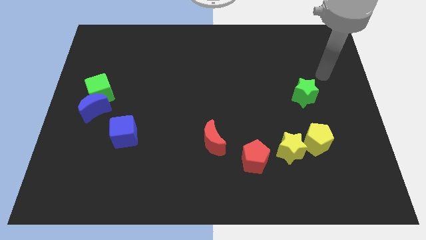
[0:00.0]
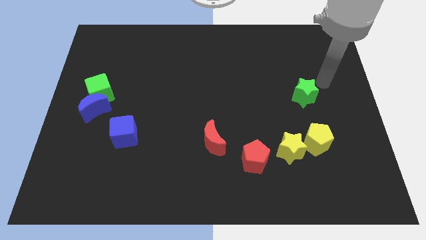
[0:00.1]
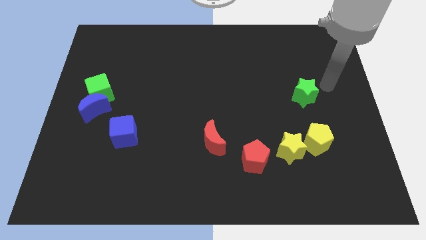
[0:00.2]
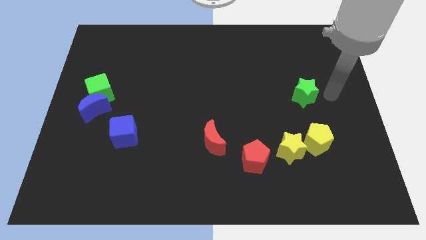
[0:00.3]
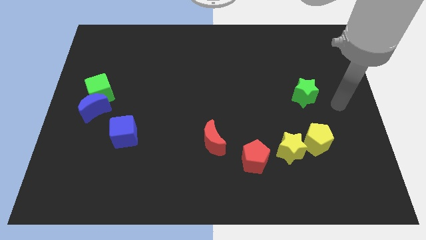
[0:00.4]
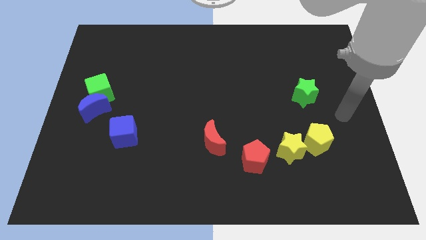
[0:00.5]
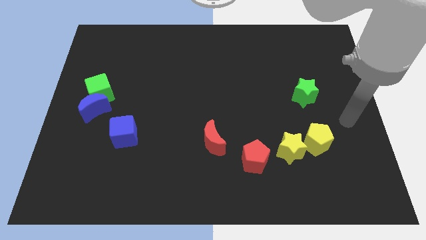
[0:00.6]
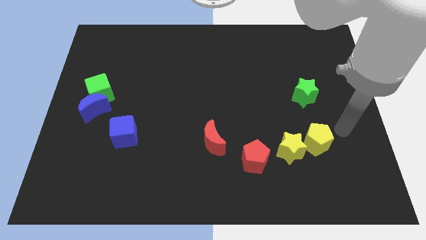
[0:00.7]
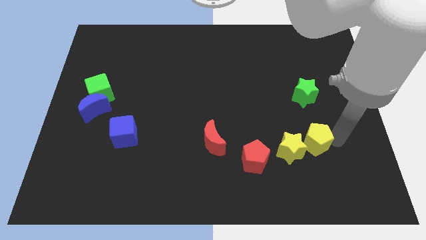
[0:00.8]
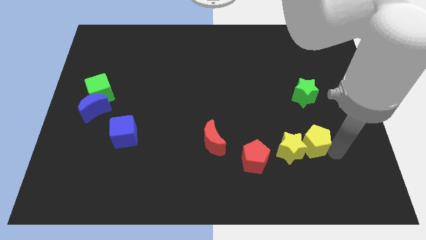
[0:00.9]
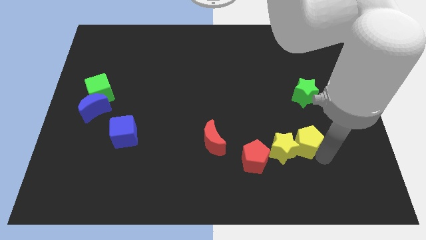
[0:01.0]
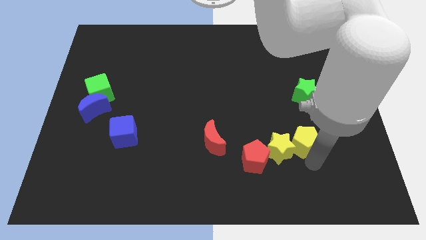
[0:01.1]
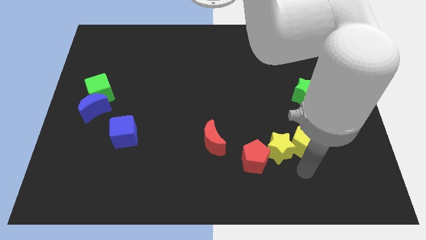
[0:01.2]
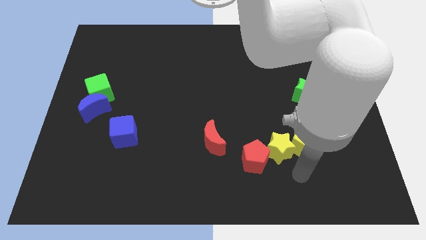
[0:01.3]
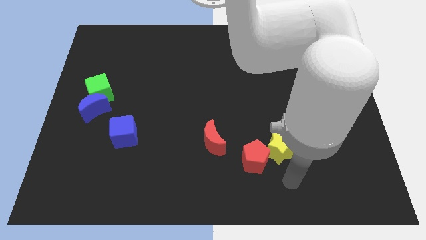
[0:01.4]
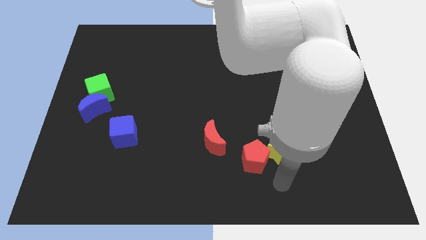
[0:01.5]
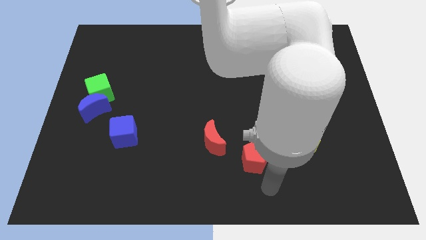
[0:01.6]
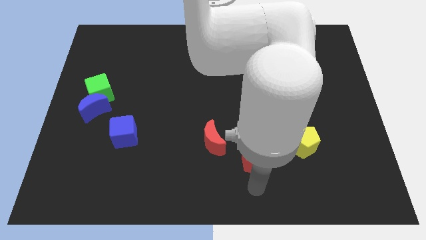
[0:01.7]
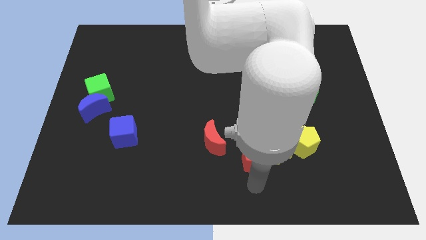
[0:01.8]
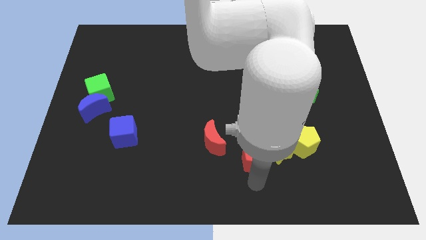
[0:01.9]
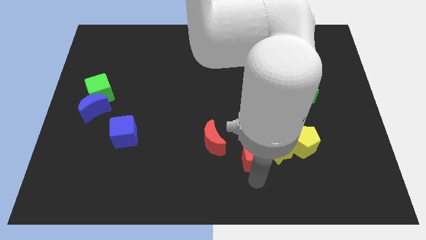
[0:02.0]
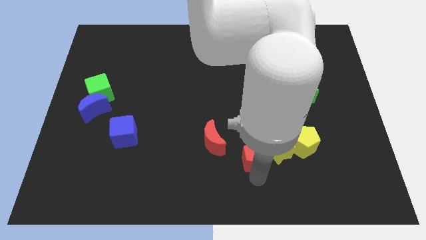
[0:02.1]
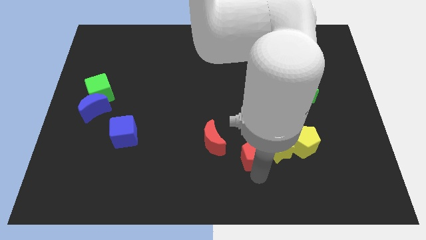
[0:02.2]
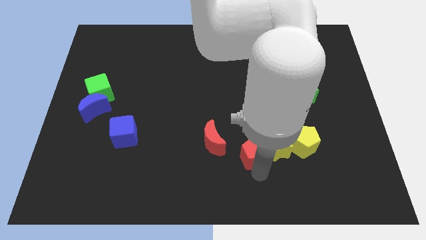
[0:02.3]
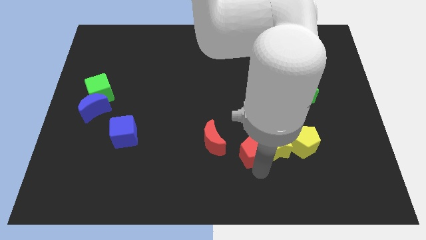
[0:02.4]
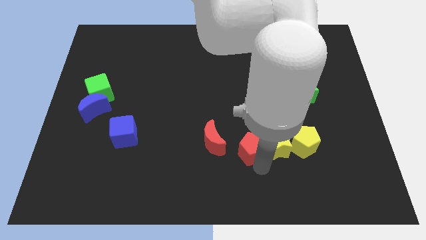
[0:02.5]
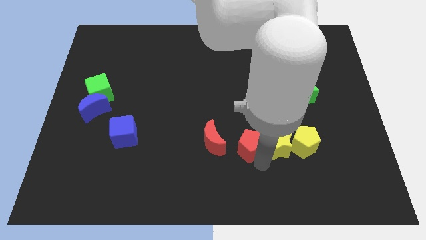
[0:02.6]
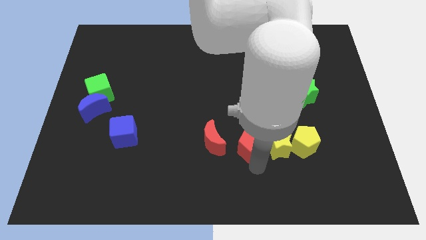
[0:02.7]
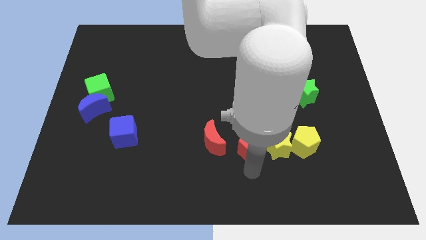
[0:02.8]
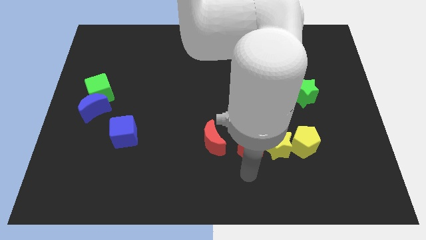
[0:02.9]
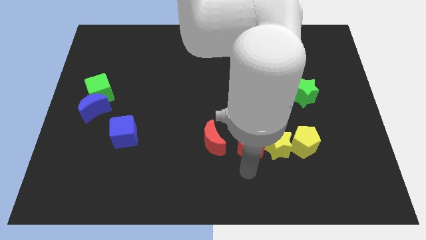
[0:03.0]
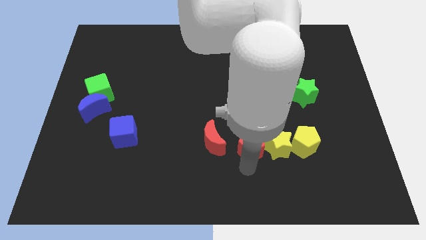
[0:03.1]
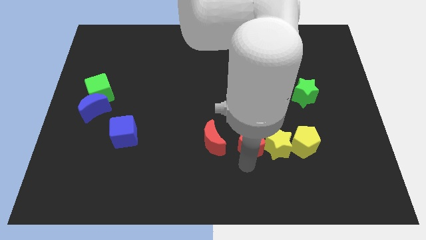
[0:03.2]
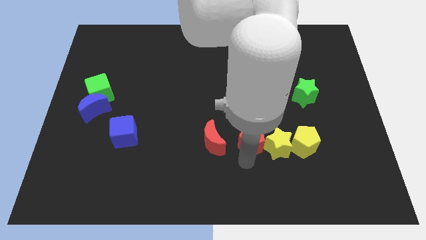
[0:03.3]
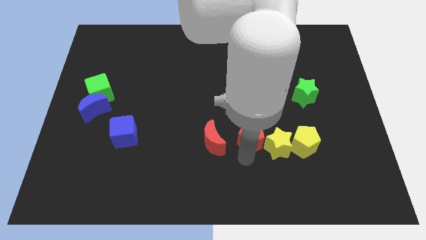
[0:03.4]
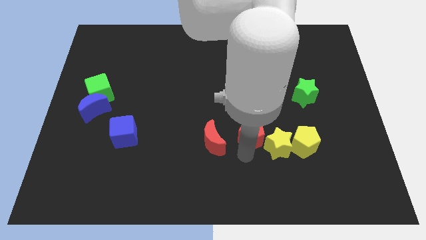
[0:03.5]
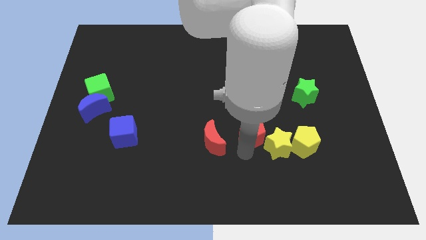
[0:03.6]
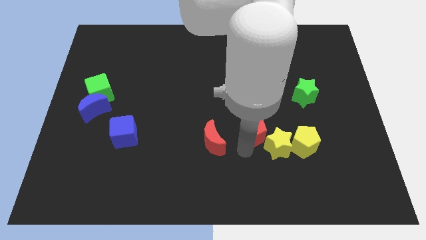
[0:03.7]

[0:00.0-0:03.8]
move the red pentagon slightly upwards

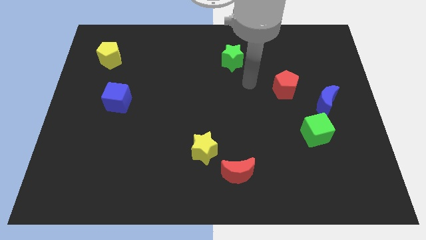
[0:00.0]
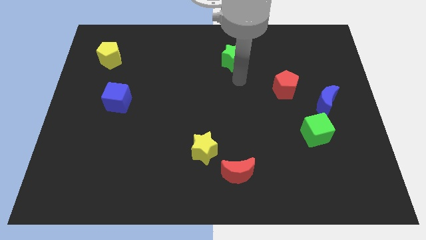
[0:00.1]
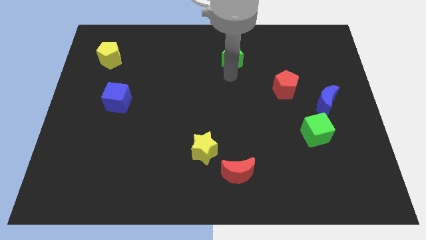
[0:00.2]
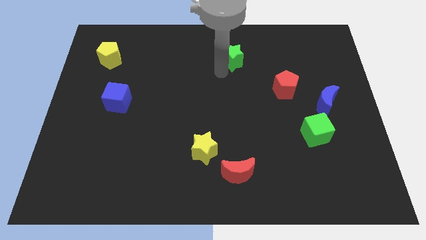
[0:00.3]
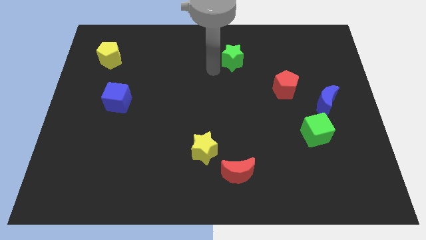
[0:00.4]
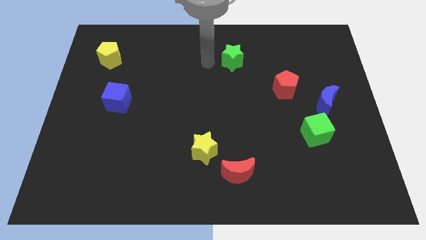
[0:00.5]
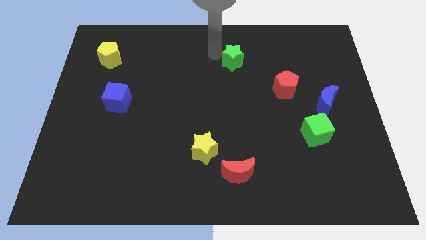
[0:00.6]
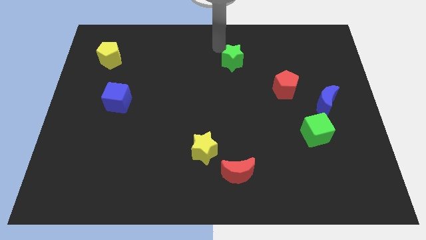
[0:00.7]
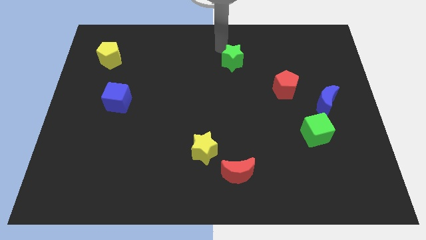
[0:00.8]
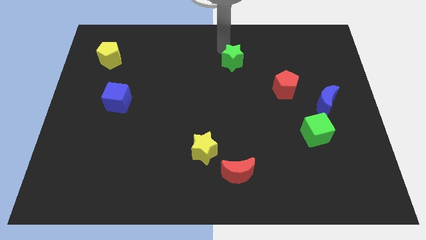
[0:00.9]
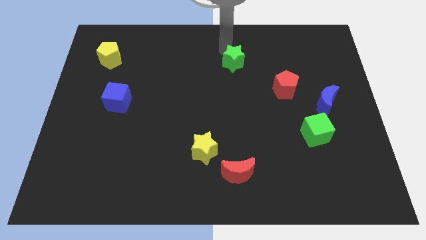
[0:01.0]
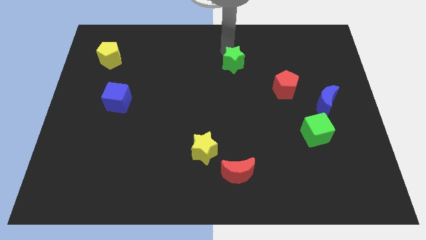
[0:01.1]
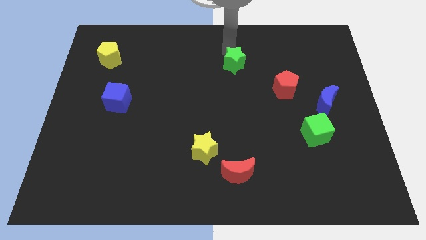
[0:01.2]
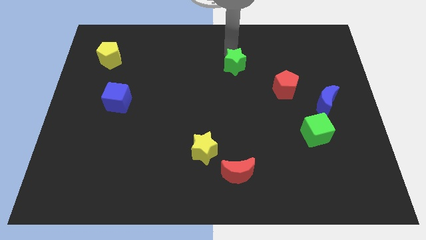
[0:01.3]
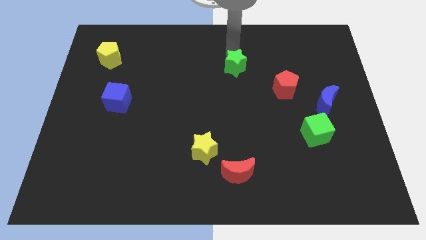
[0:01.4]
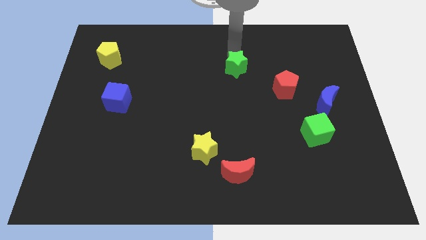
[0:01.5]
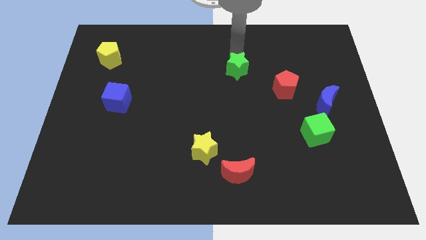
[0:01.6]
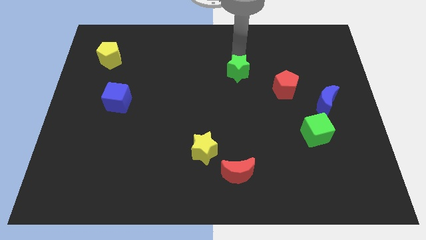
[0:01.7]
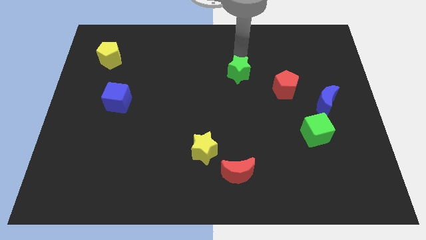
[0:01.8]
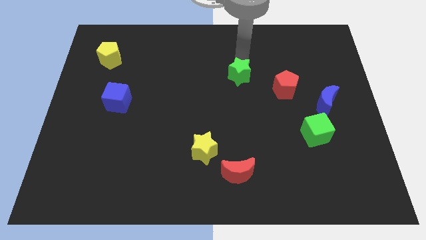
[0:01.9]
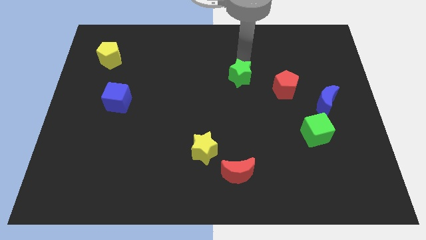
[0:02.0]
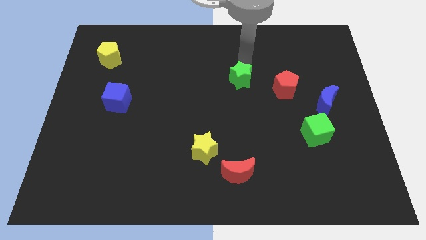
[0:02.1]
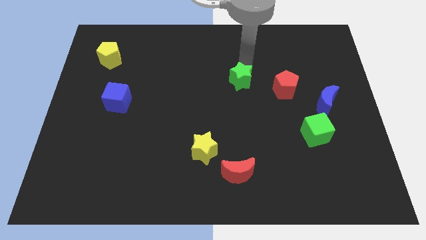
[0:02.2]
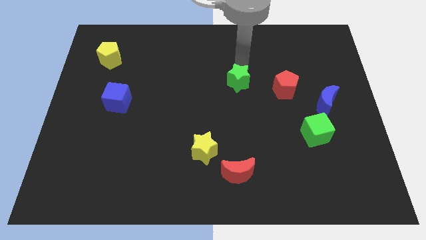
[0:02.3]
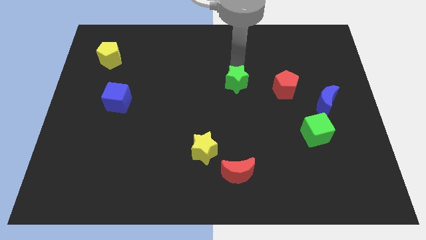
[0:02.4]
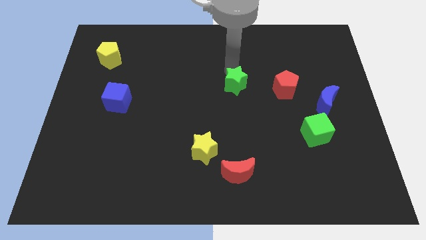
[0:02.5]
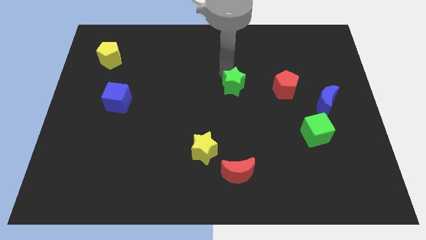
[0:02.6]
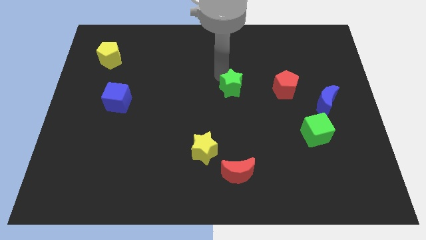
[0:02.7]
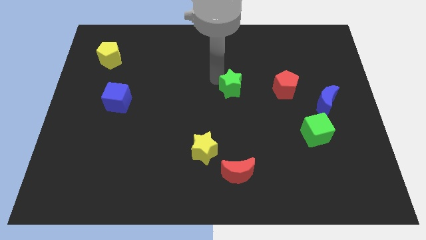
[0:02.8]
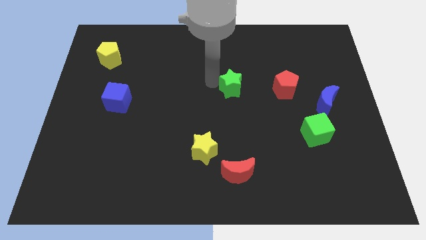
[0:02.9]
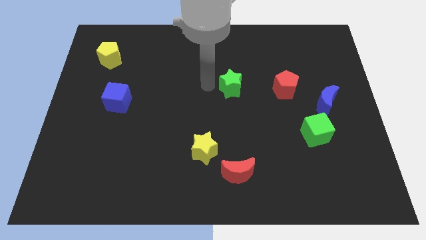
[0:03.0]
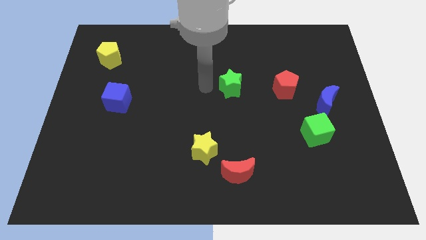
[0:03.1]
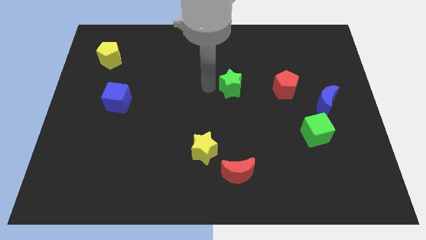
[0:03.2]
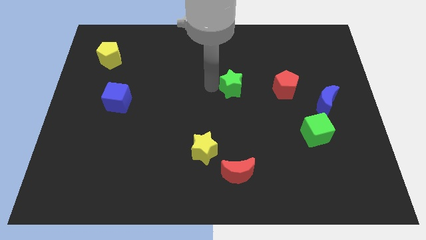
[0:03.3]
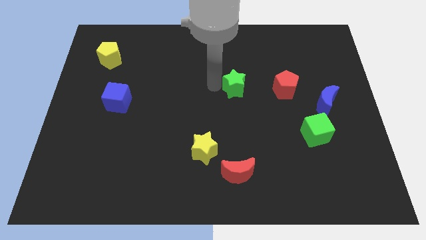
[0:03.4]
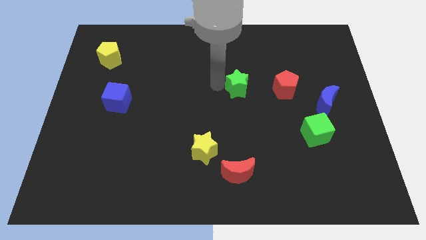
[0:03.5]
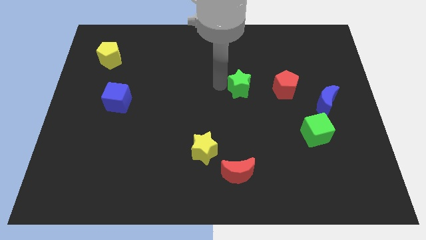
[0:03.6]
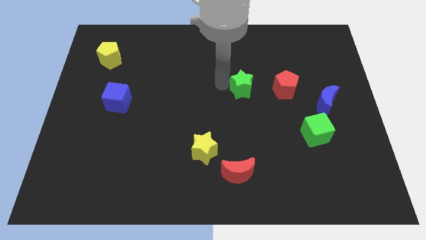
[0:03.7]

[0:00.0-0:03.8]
slightly slide the green star down and right diagonally

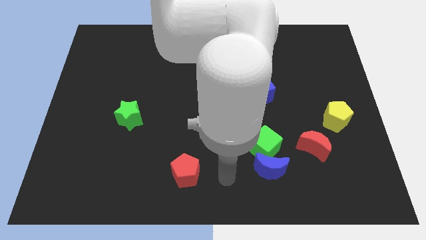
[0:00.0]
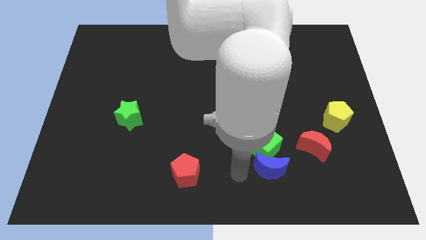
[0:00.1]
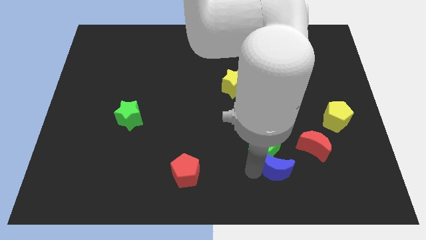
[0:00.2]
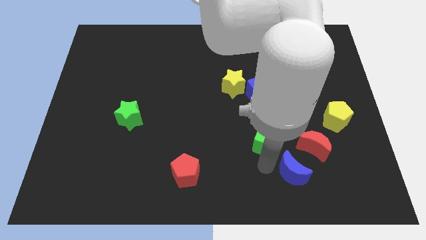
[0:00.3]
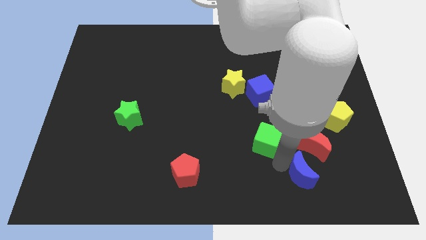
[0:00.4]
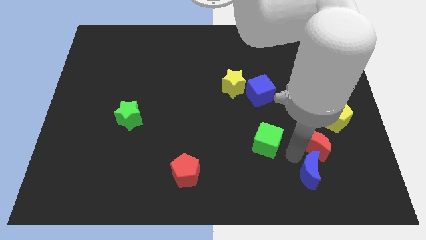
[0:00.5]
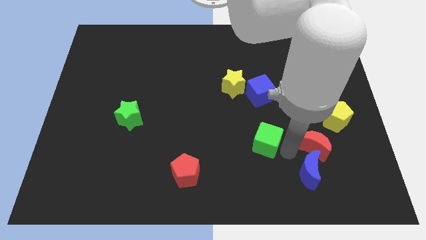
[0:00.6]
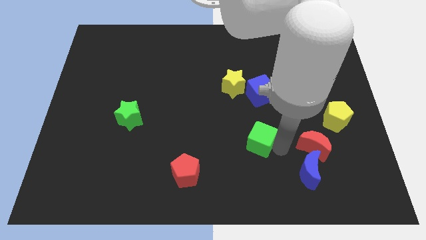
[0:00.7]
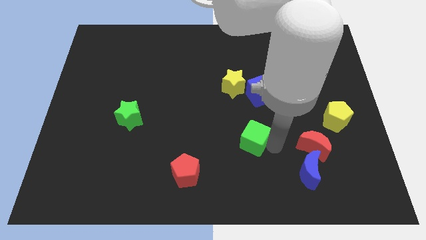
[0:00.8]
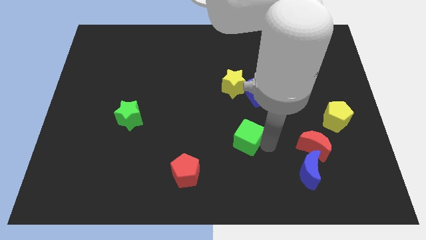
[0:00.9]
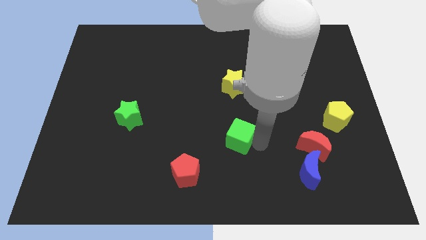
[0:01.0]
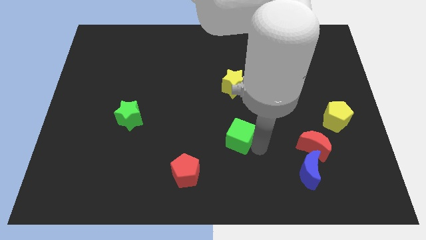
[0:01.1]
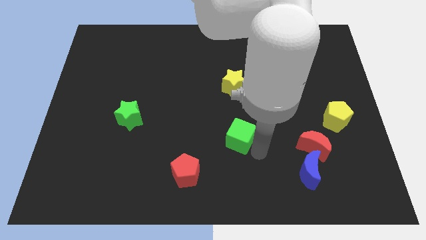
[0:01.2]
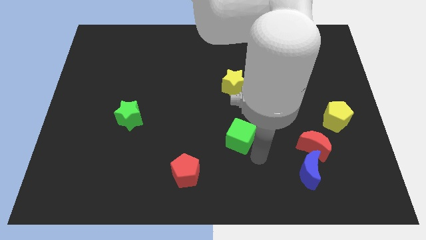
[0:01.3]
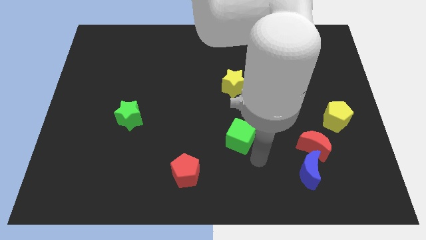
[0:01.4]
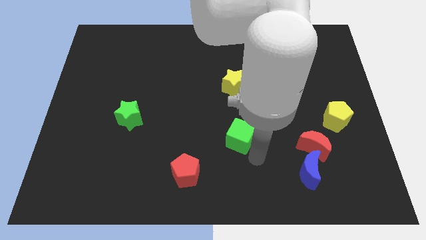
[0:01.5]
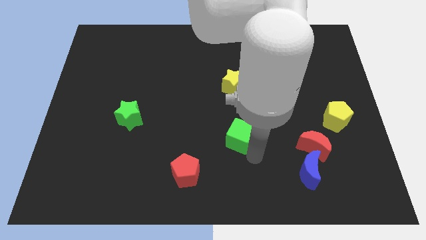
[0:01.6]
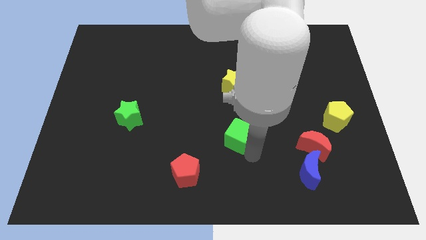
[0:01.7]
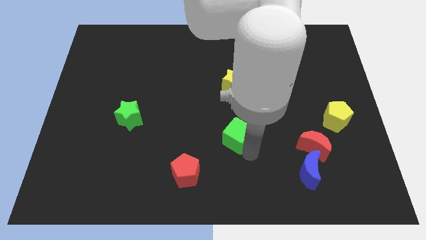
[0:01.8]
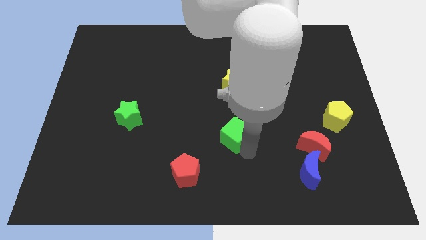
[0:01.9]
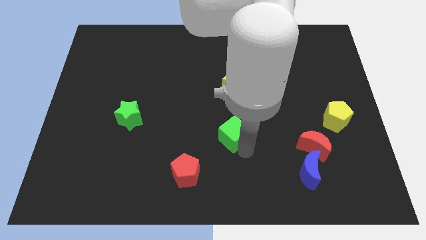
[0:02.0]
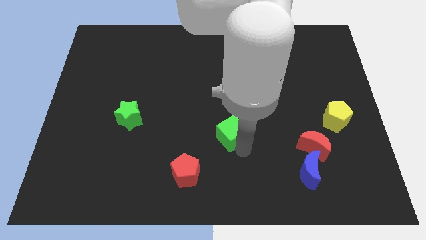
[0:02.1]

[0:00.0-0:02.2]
slide the green cube upwards and then left a bit
